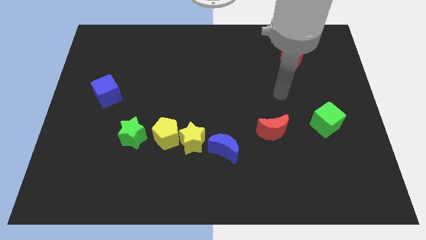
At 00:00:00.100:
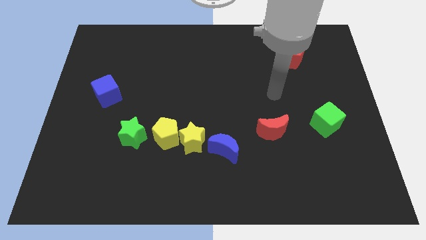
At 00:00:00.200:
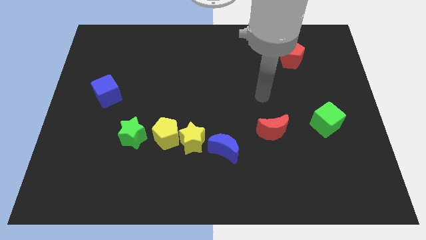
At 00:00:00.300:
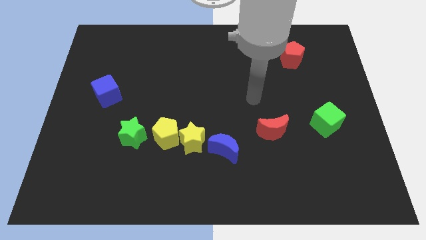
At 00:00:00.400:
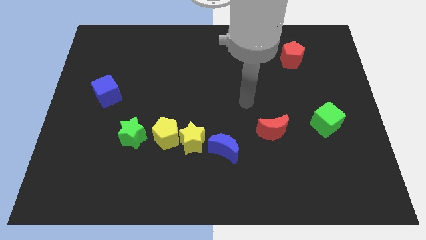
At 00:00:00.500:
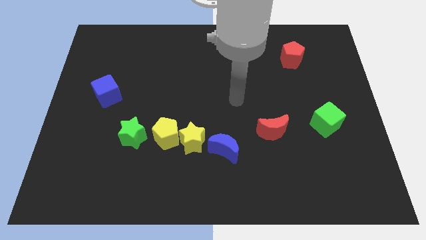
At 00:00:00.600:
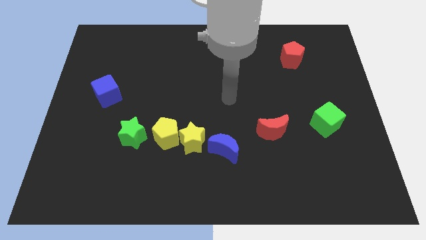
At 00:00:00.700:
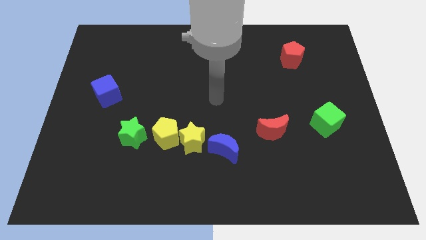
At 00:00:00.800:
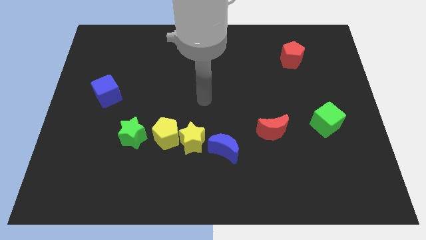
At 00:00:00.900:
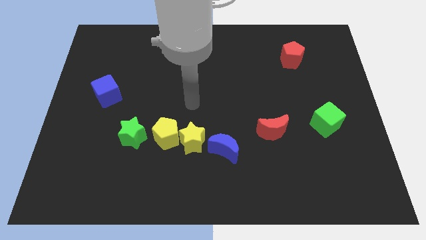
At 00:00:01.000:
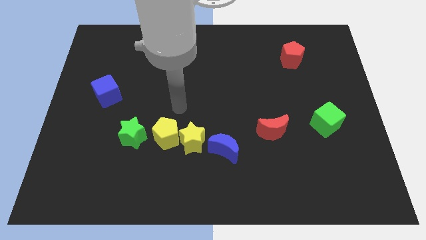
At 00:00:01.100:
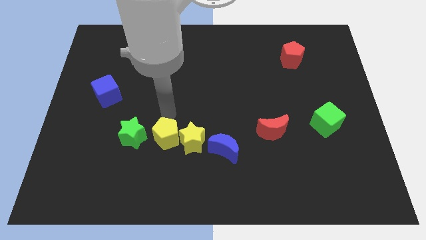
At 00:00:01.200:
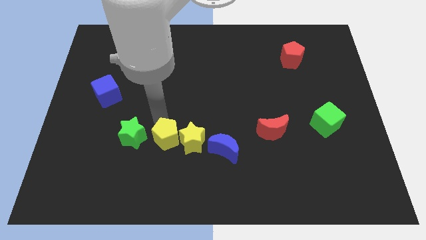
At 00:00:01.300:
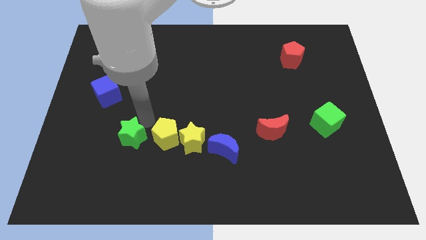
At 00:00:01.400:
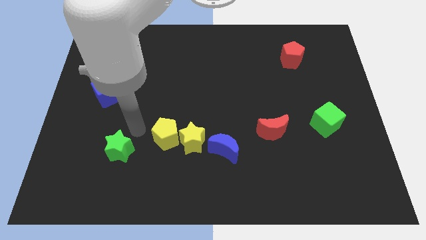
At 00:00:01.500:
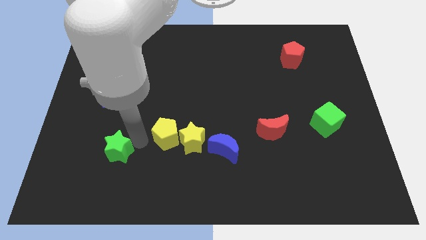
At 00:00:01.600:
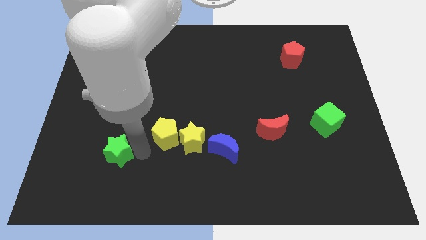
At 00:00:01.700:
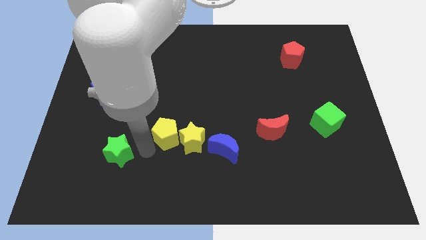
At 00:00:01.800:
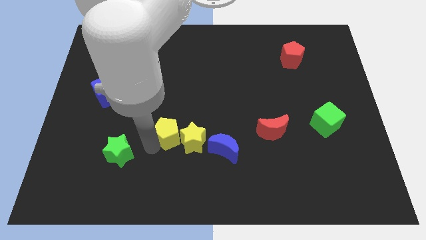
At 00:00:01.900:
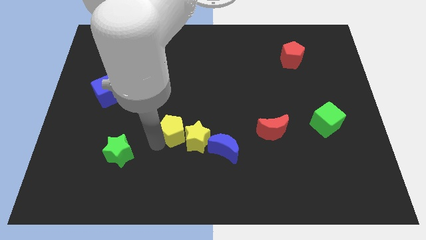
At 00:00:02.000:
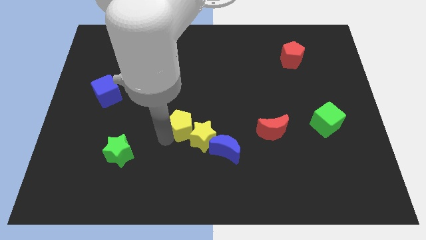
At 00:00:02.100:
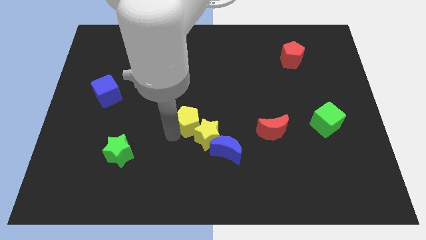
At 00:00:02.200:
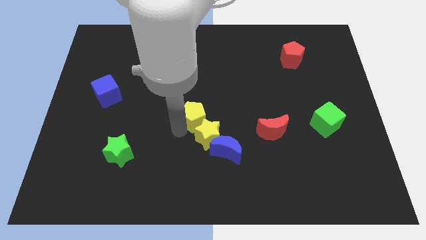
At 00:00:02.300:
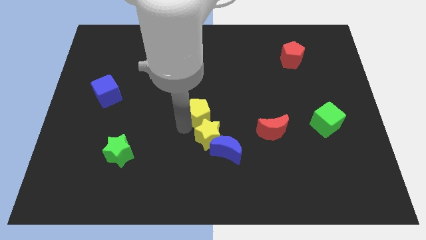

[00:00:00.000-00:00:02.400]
move the yellow pentagon away from the yellow star and green star

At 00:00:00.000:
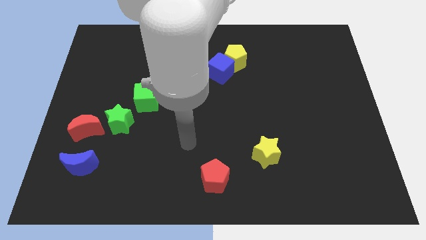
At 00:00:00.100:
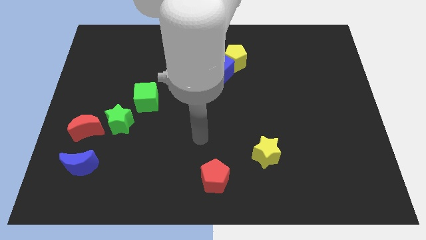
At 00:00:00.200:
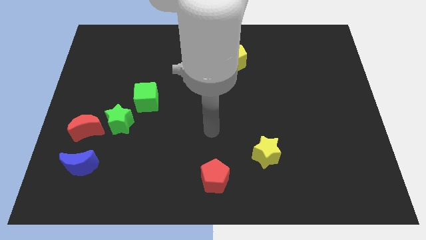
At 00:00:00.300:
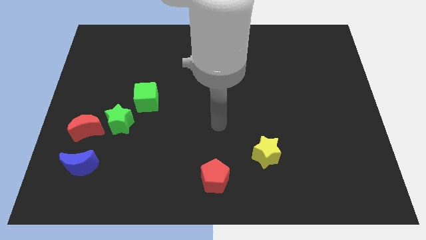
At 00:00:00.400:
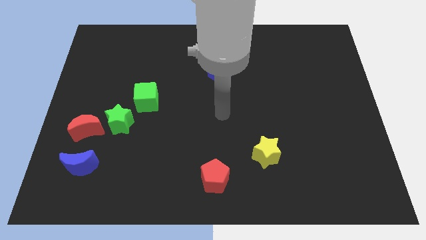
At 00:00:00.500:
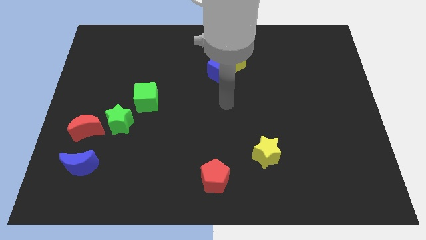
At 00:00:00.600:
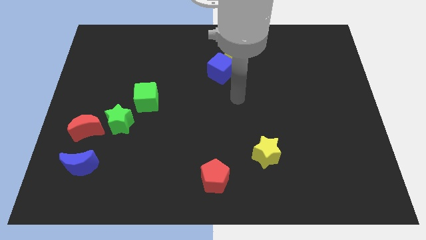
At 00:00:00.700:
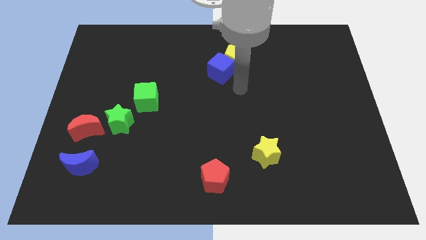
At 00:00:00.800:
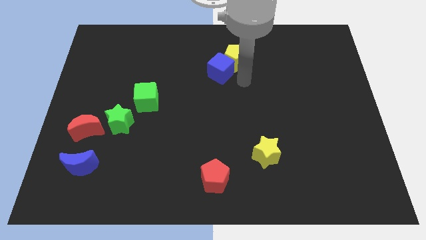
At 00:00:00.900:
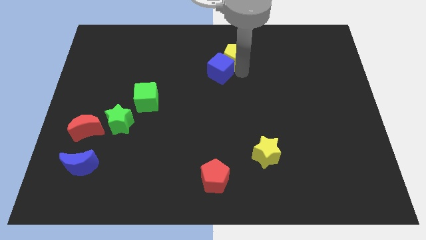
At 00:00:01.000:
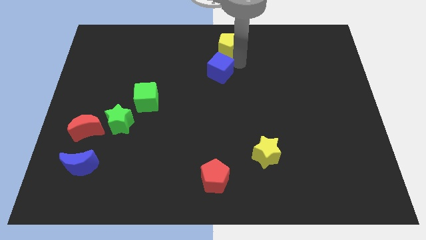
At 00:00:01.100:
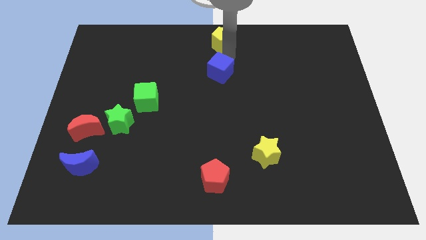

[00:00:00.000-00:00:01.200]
move the blue cube away from the yellow pentagon

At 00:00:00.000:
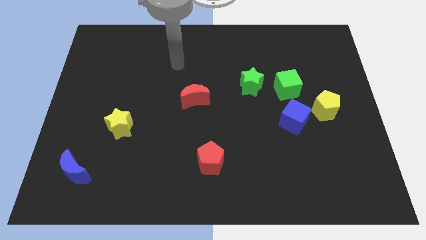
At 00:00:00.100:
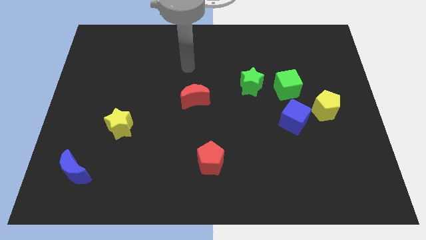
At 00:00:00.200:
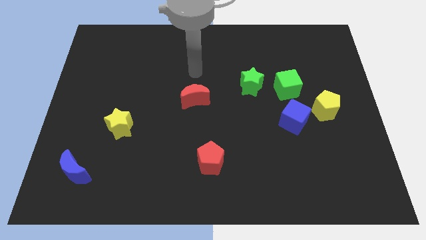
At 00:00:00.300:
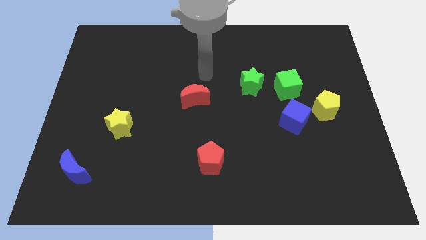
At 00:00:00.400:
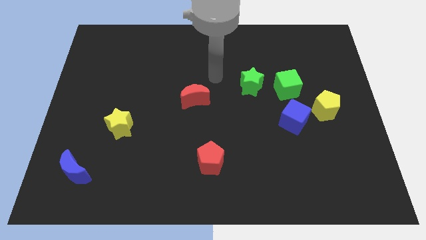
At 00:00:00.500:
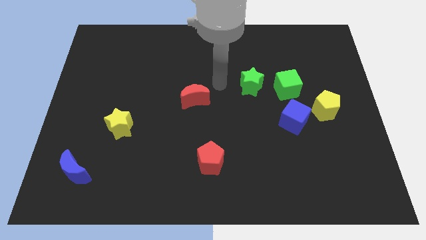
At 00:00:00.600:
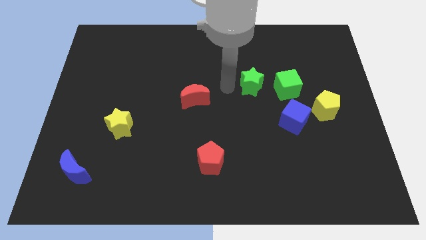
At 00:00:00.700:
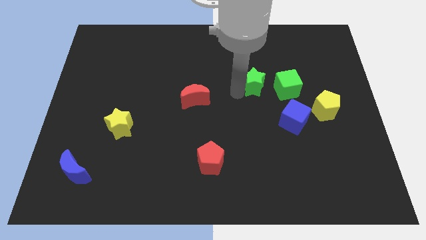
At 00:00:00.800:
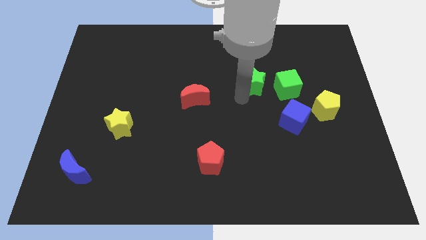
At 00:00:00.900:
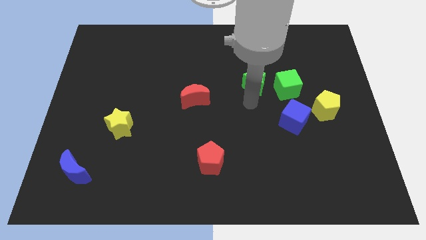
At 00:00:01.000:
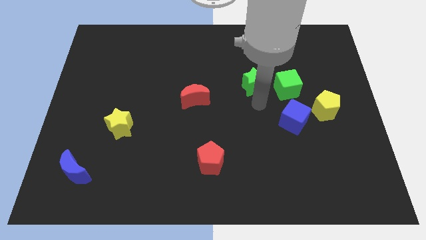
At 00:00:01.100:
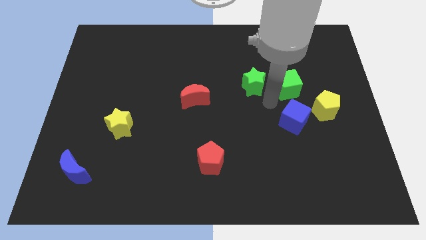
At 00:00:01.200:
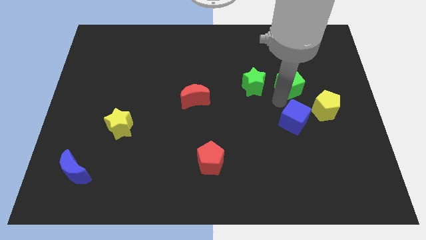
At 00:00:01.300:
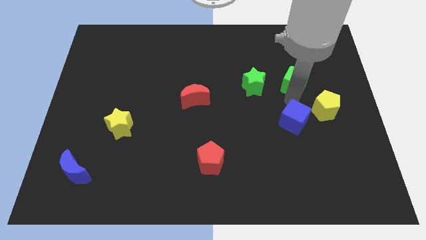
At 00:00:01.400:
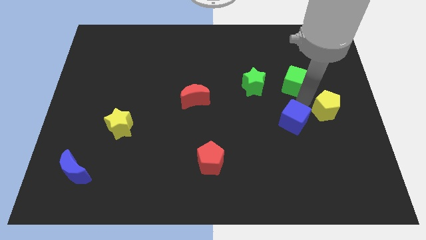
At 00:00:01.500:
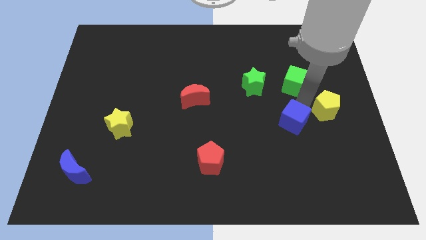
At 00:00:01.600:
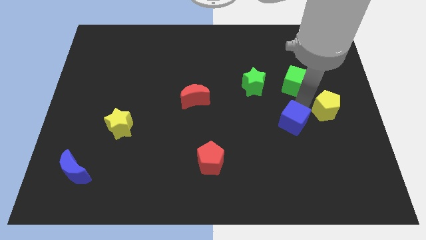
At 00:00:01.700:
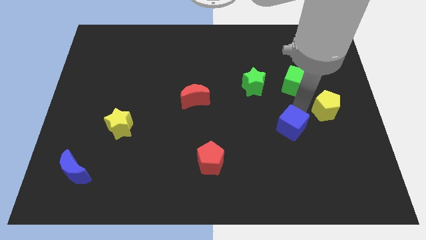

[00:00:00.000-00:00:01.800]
separate the blue cube from the yellow pentagon and green cube

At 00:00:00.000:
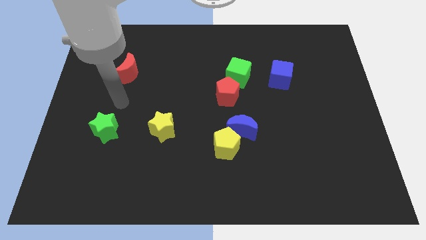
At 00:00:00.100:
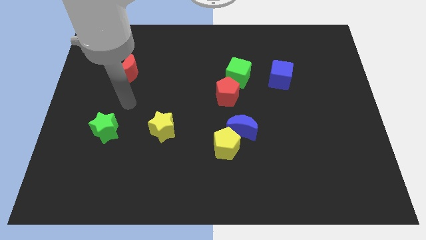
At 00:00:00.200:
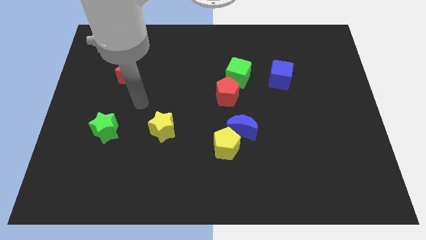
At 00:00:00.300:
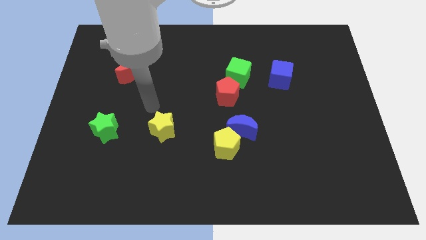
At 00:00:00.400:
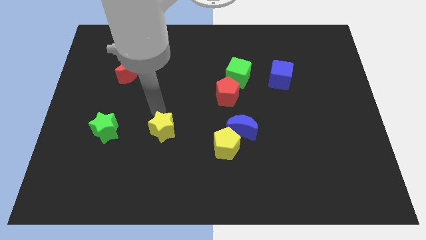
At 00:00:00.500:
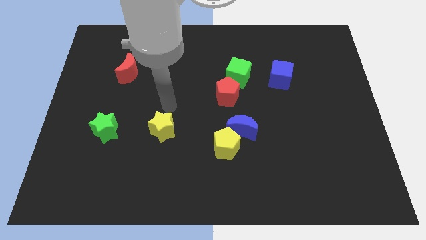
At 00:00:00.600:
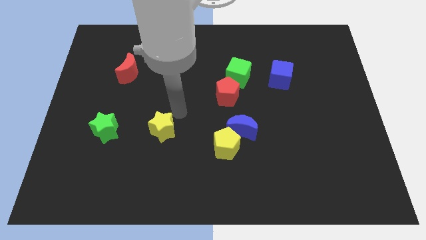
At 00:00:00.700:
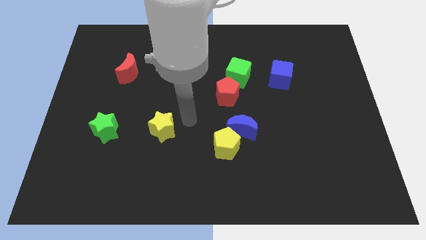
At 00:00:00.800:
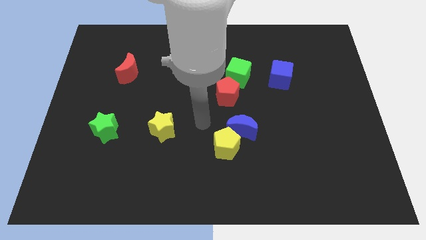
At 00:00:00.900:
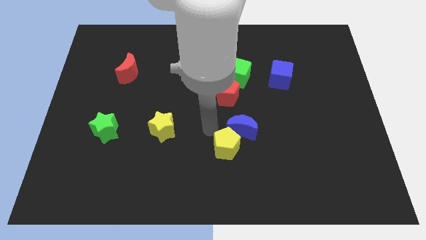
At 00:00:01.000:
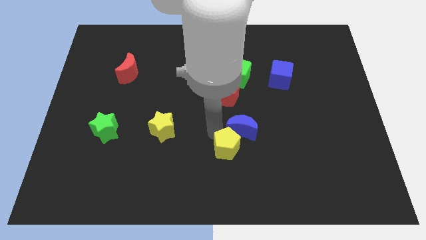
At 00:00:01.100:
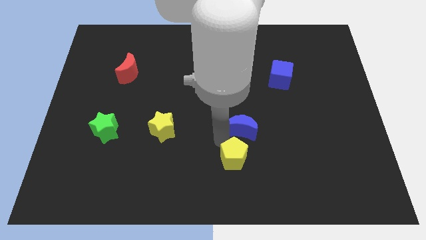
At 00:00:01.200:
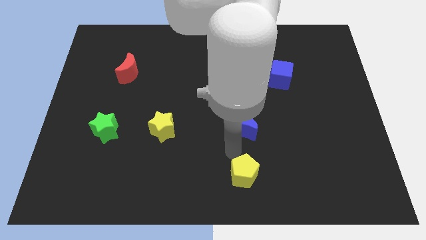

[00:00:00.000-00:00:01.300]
move the blue moon away from the yellow pentagon

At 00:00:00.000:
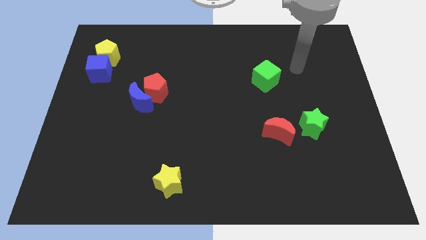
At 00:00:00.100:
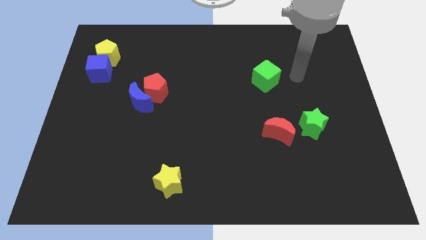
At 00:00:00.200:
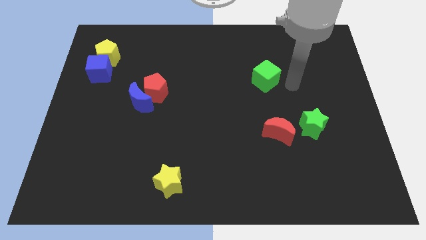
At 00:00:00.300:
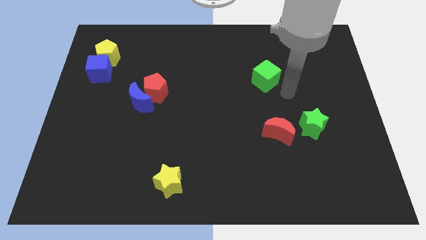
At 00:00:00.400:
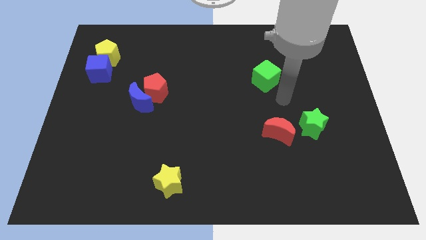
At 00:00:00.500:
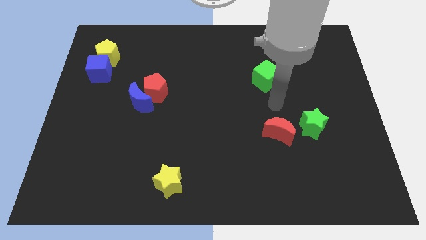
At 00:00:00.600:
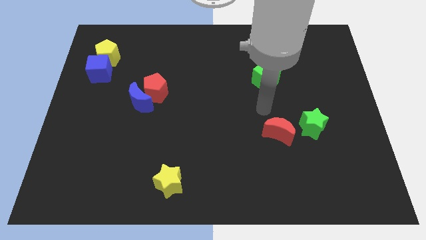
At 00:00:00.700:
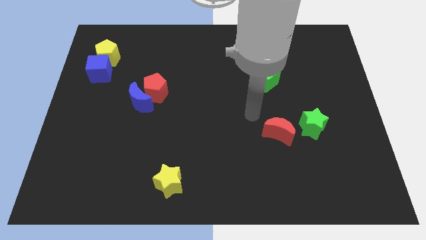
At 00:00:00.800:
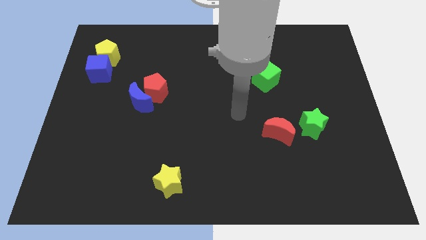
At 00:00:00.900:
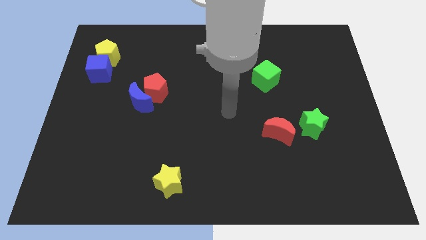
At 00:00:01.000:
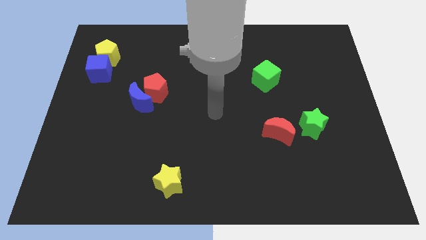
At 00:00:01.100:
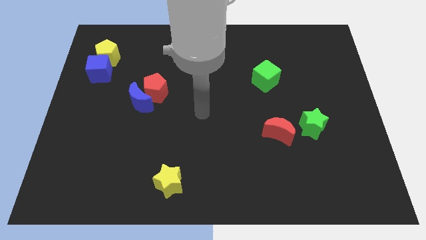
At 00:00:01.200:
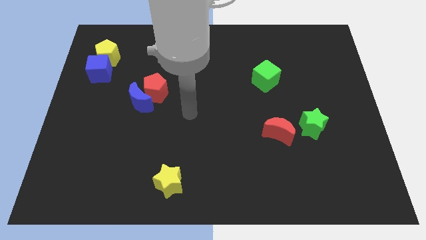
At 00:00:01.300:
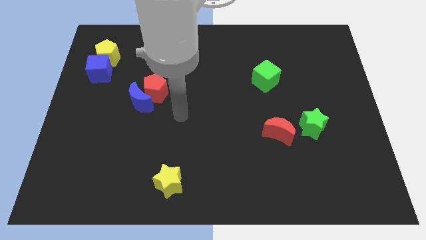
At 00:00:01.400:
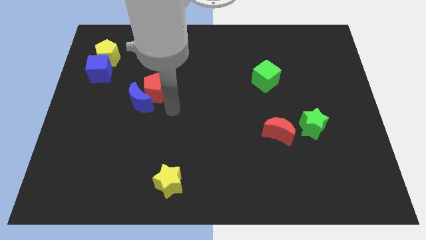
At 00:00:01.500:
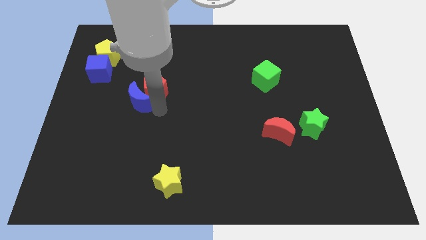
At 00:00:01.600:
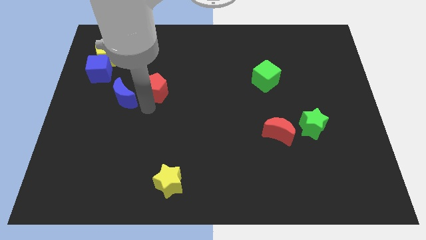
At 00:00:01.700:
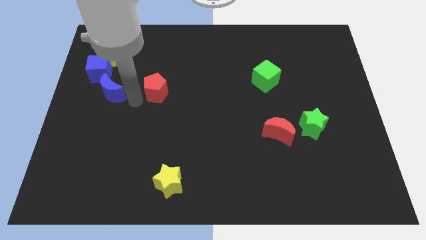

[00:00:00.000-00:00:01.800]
separate the red pentagon from the blue moon

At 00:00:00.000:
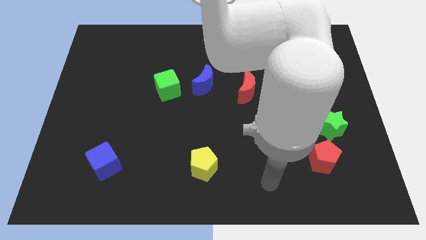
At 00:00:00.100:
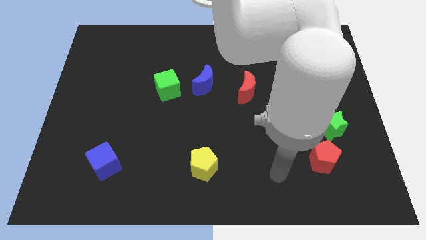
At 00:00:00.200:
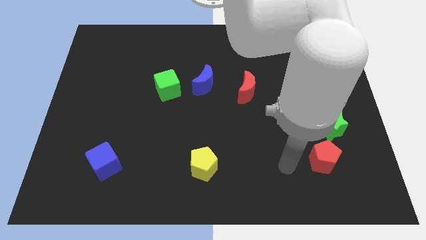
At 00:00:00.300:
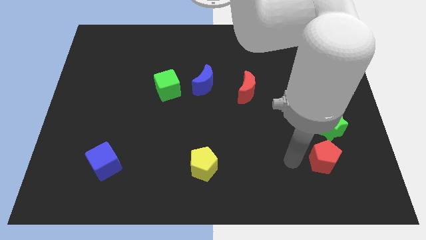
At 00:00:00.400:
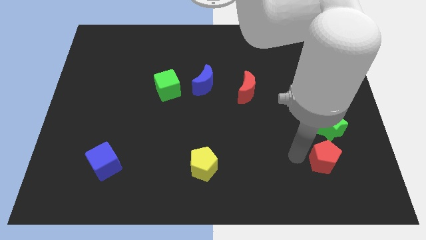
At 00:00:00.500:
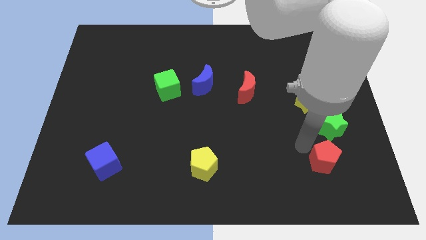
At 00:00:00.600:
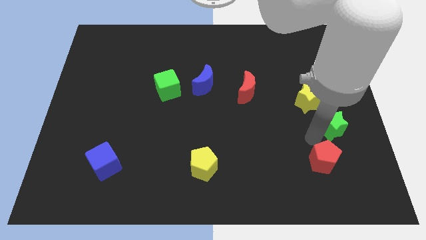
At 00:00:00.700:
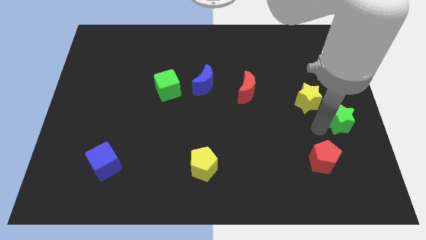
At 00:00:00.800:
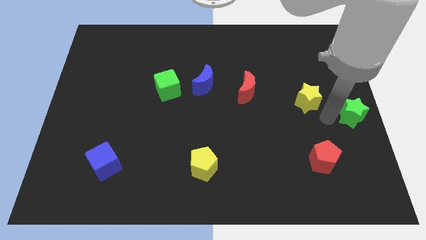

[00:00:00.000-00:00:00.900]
pull the yellow star apart from the green star
